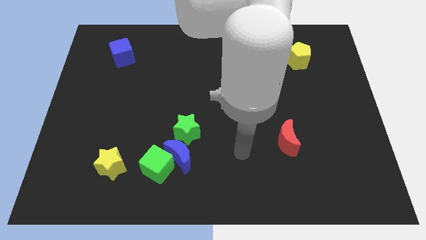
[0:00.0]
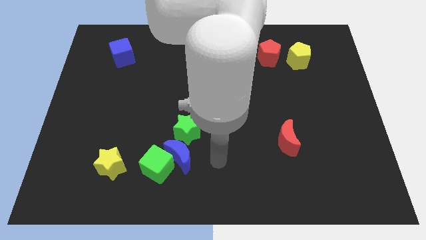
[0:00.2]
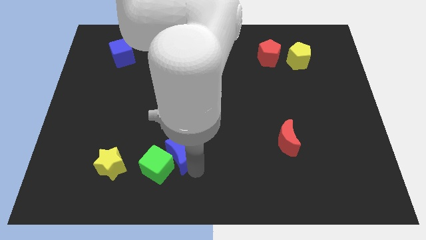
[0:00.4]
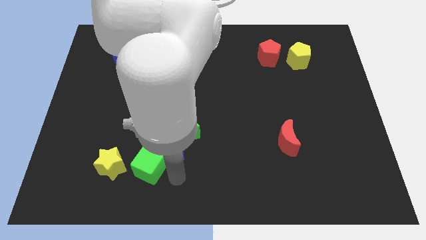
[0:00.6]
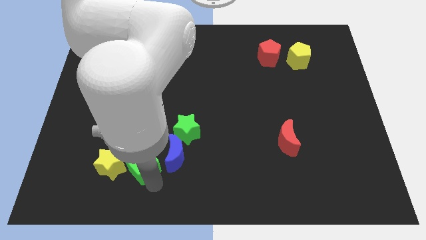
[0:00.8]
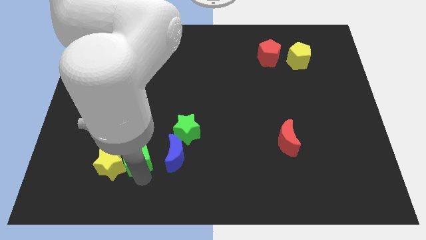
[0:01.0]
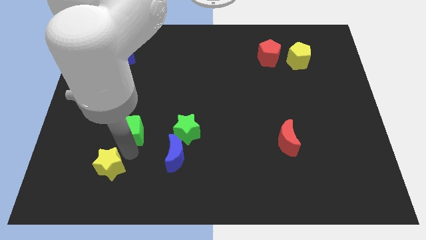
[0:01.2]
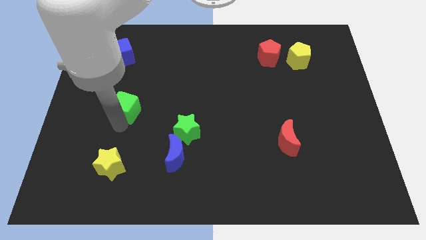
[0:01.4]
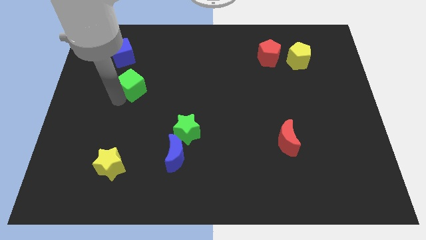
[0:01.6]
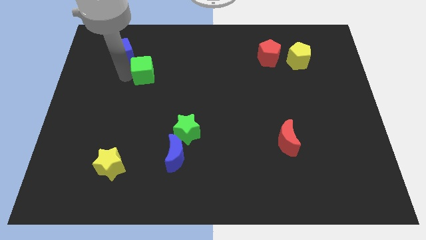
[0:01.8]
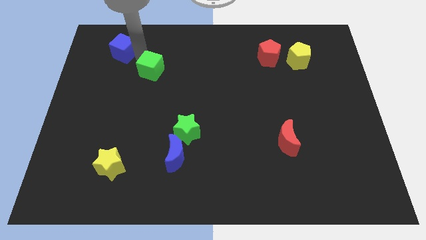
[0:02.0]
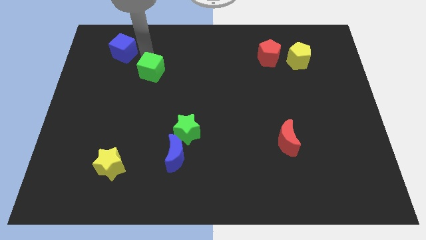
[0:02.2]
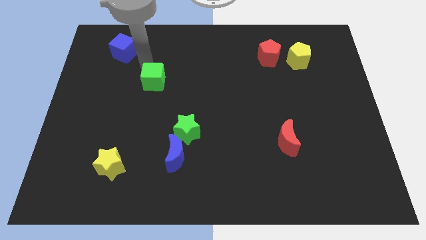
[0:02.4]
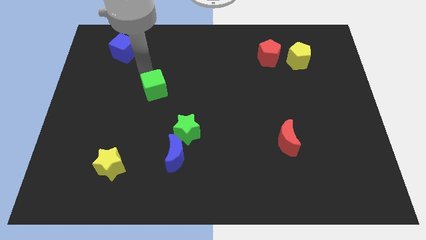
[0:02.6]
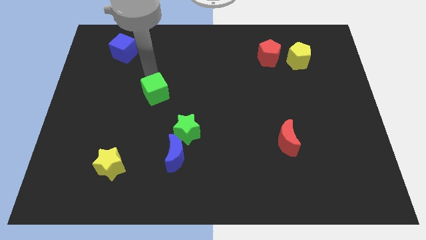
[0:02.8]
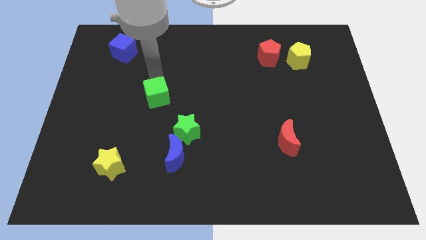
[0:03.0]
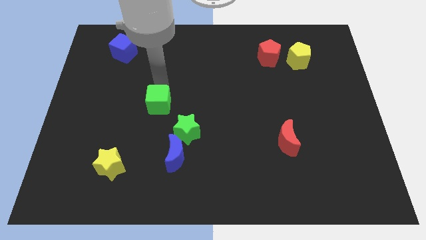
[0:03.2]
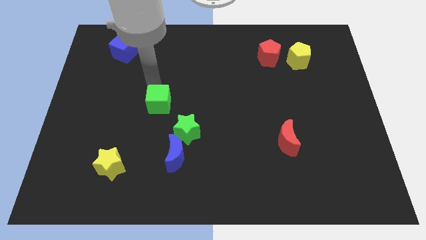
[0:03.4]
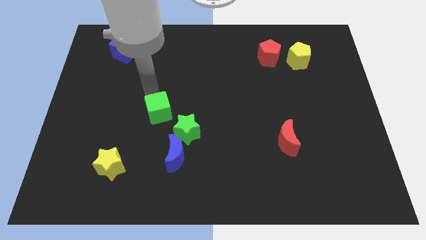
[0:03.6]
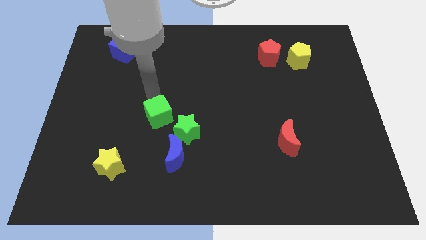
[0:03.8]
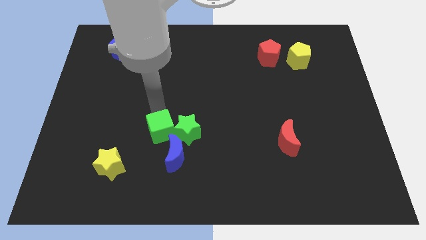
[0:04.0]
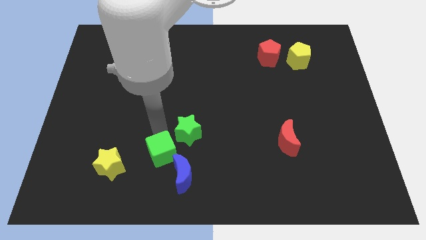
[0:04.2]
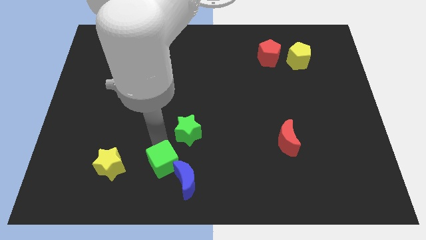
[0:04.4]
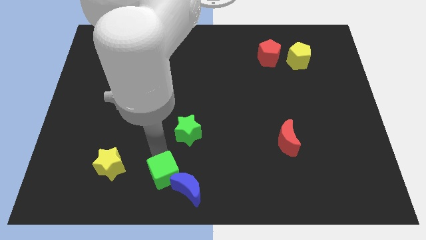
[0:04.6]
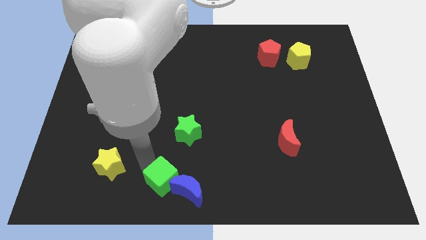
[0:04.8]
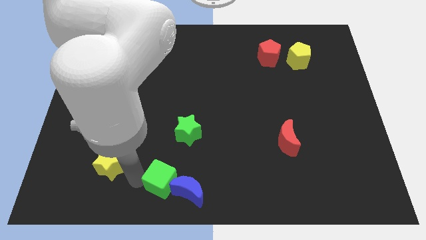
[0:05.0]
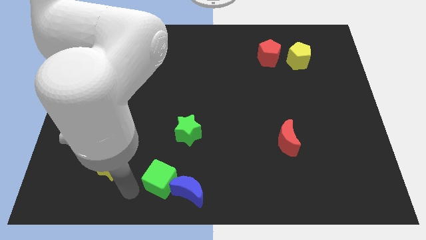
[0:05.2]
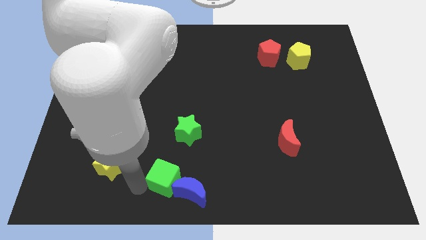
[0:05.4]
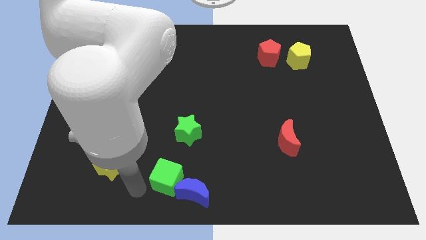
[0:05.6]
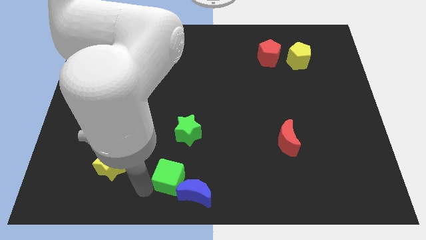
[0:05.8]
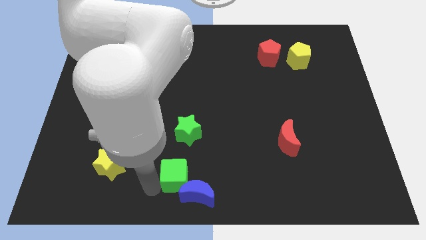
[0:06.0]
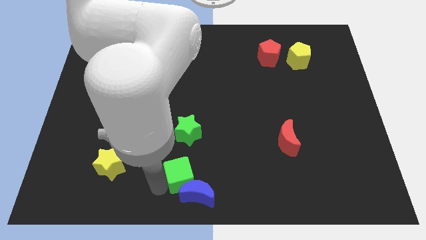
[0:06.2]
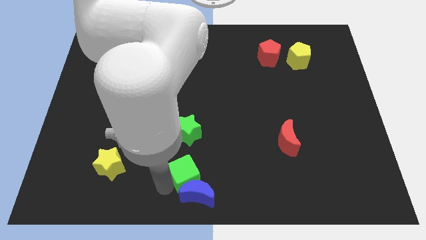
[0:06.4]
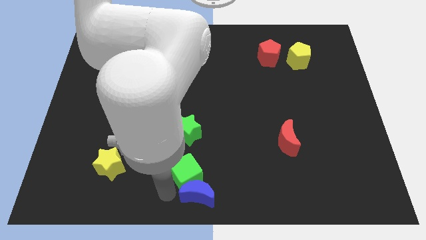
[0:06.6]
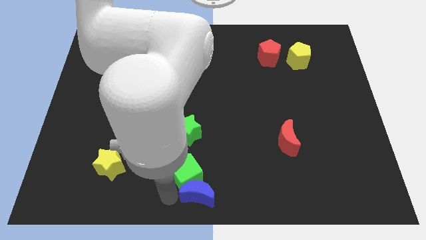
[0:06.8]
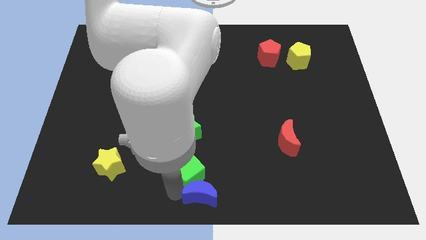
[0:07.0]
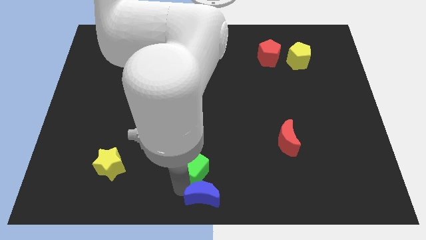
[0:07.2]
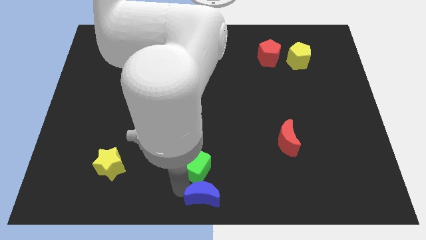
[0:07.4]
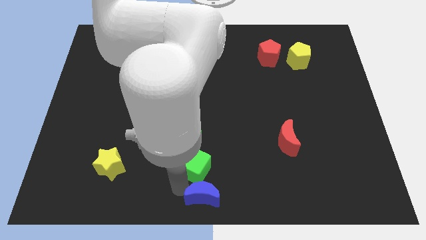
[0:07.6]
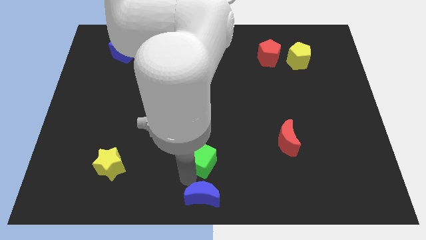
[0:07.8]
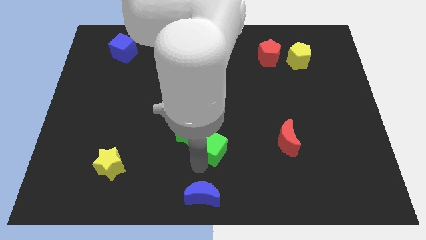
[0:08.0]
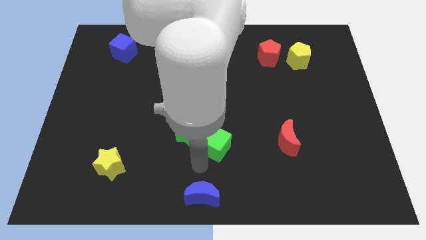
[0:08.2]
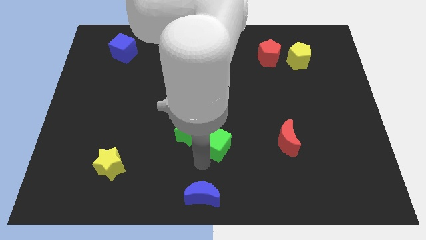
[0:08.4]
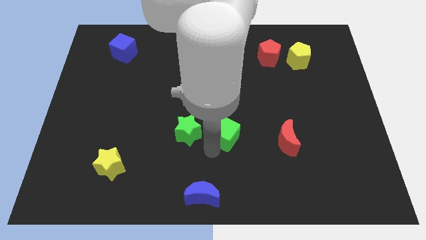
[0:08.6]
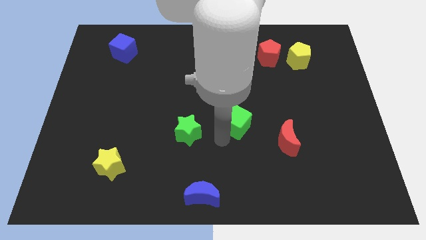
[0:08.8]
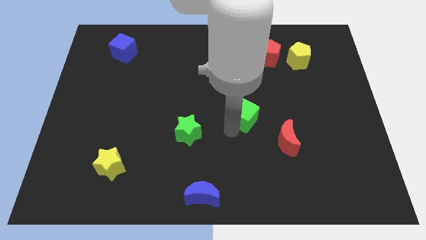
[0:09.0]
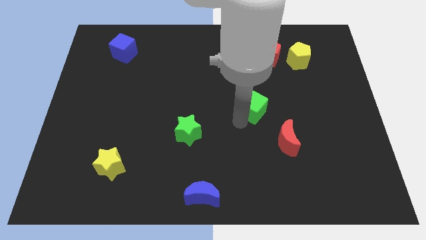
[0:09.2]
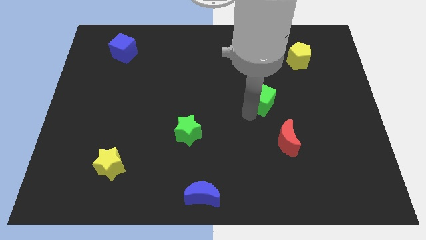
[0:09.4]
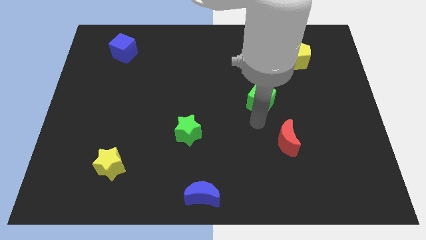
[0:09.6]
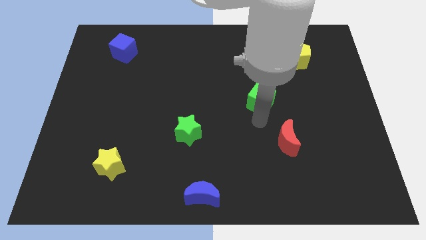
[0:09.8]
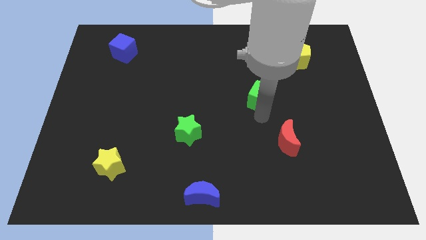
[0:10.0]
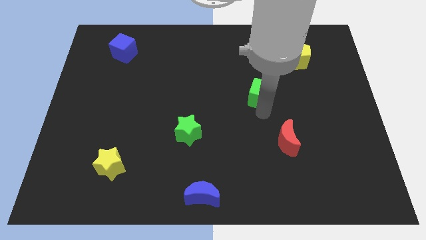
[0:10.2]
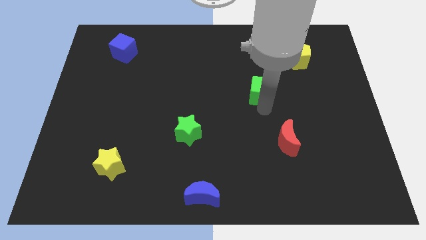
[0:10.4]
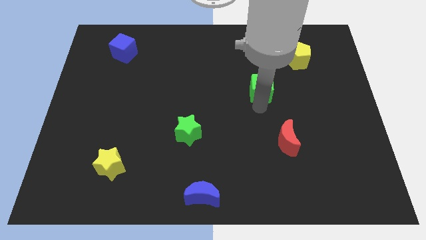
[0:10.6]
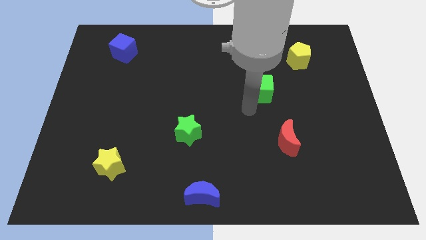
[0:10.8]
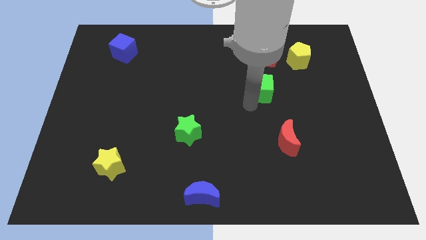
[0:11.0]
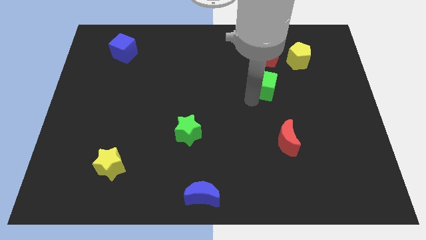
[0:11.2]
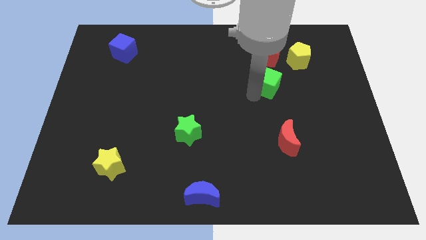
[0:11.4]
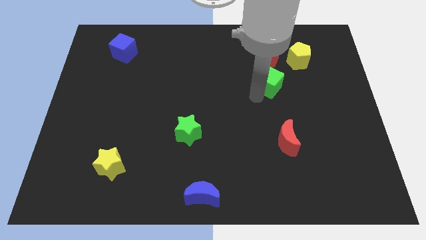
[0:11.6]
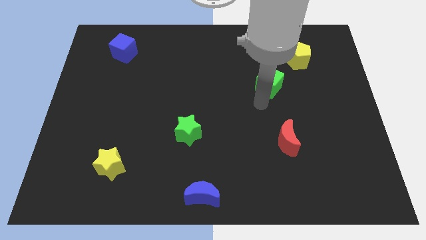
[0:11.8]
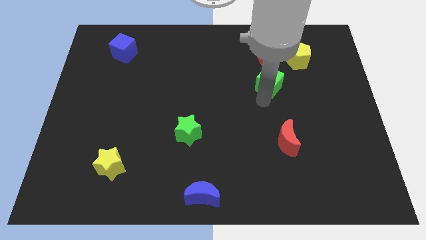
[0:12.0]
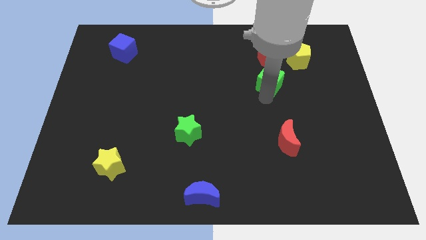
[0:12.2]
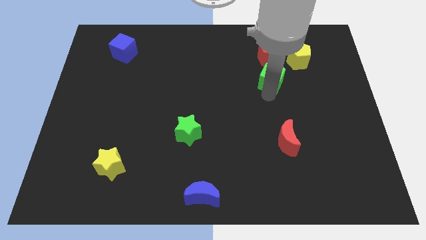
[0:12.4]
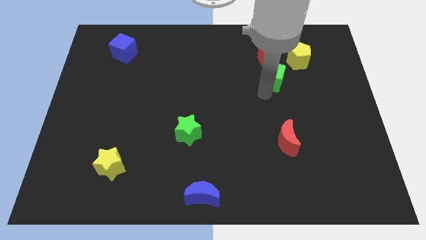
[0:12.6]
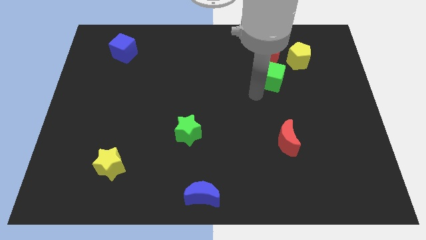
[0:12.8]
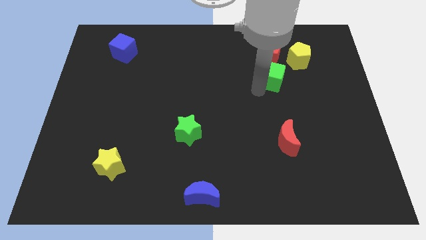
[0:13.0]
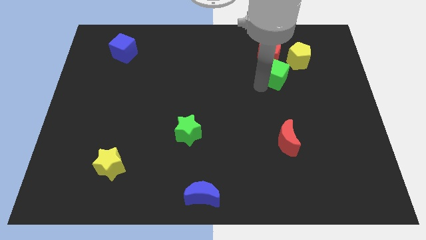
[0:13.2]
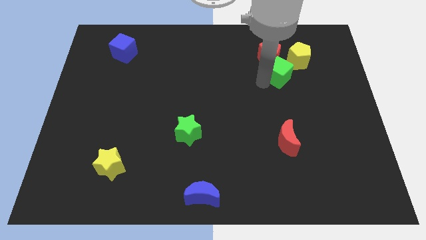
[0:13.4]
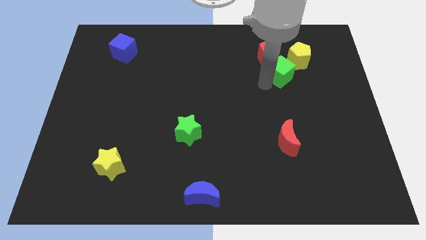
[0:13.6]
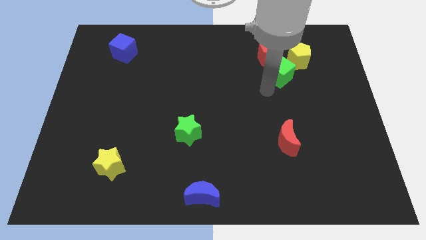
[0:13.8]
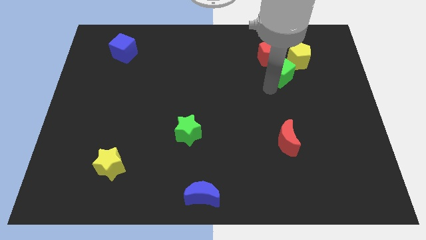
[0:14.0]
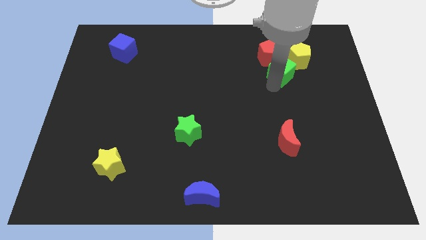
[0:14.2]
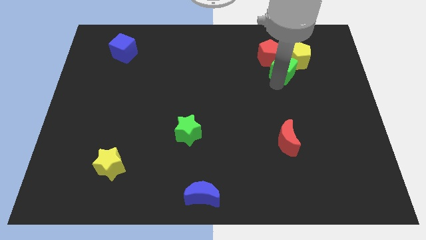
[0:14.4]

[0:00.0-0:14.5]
put the green cube next to the yellow pentagon

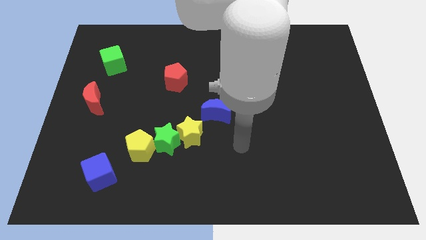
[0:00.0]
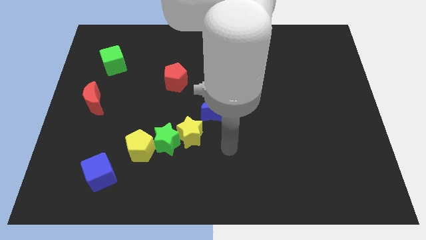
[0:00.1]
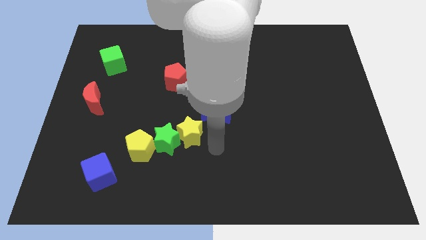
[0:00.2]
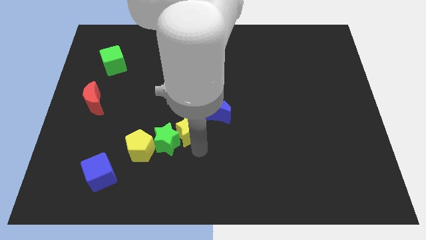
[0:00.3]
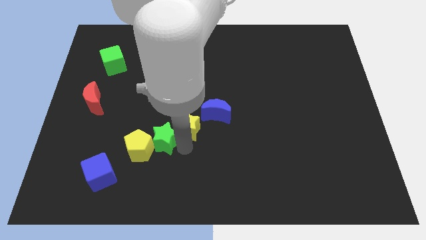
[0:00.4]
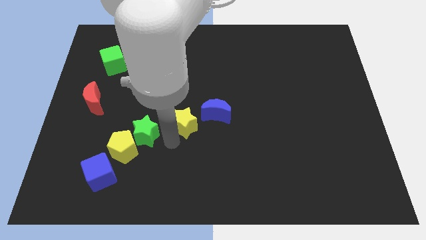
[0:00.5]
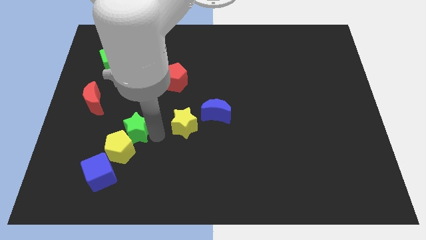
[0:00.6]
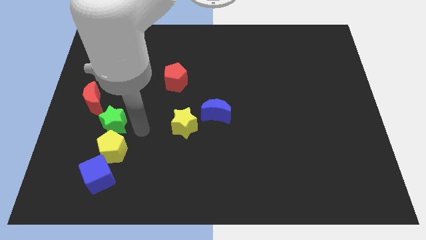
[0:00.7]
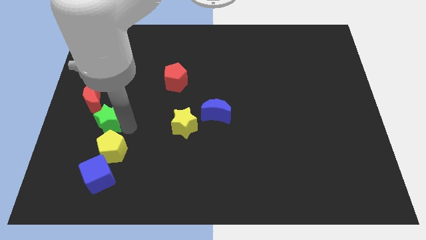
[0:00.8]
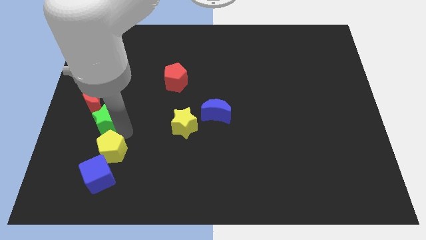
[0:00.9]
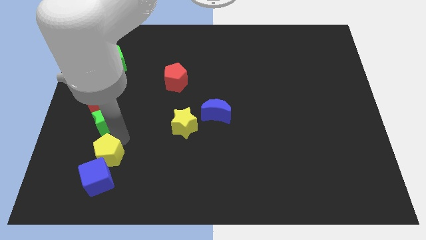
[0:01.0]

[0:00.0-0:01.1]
move the yellow pentagon towards the blue cube
